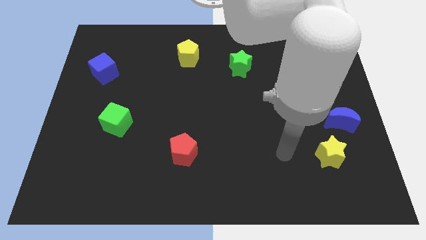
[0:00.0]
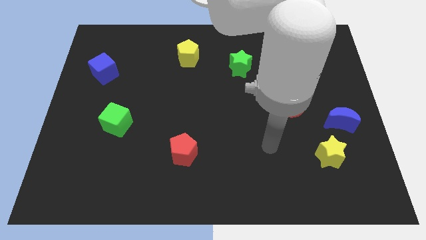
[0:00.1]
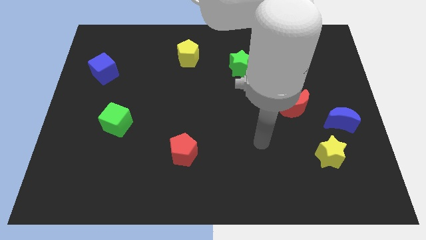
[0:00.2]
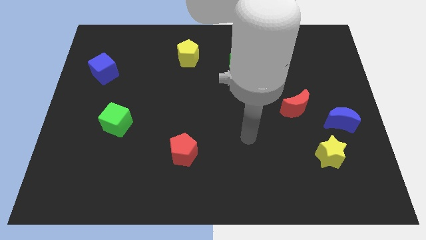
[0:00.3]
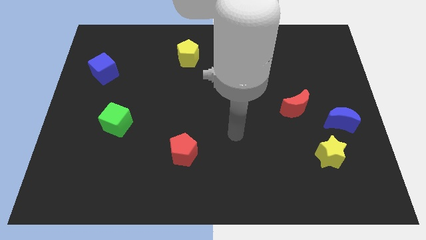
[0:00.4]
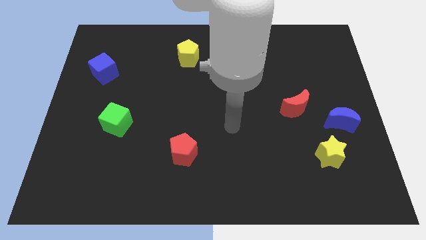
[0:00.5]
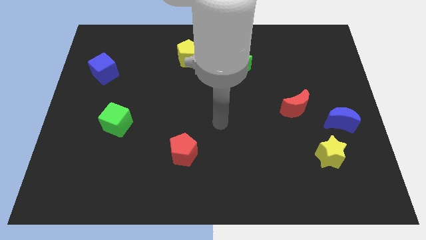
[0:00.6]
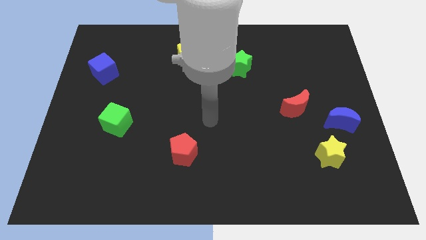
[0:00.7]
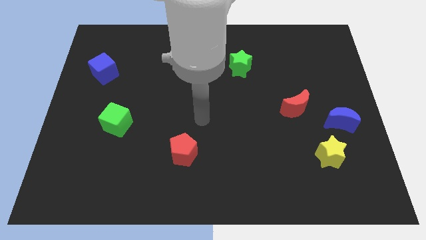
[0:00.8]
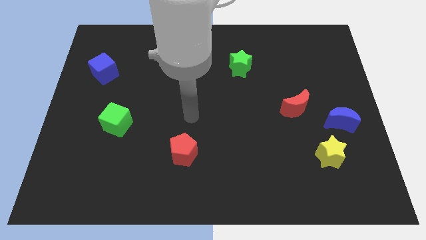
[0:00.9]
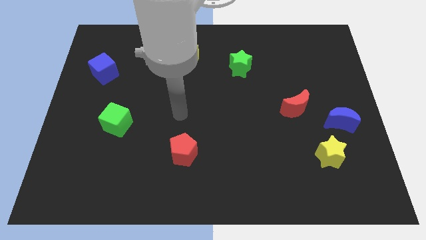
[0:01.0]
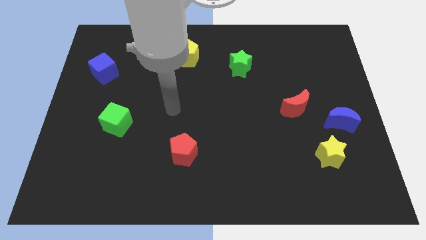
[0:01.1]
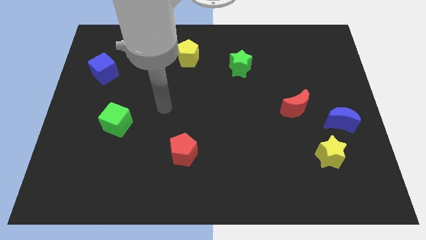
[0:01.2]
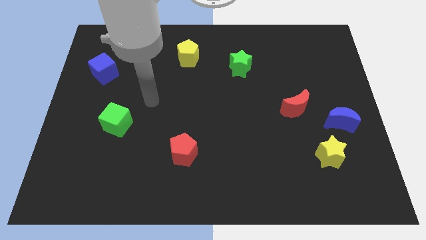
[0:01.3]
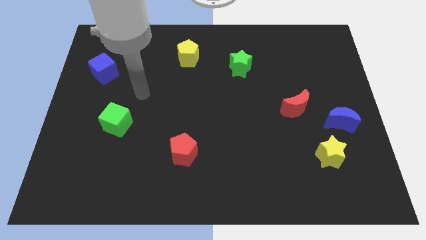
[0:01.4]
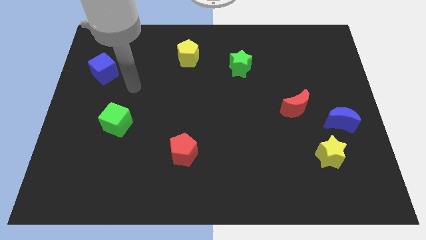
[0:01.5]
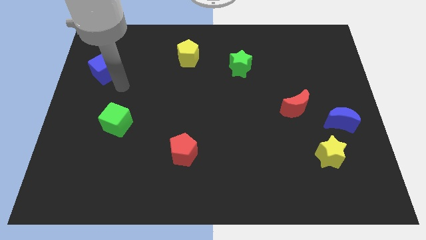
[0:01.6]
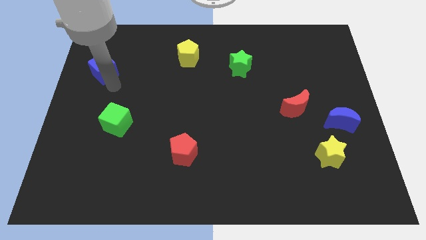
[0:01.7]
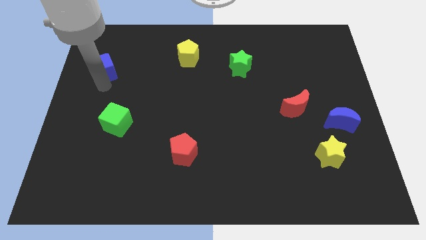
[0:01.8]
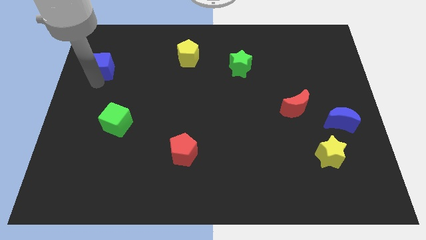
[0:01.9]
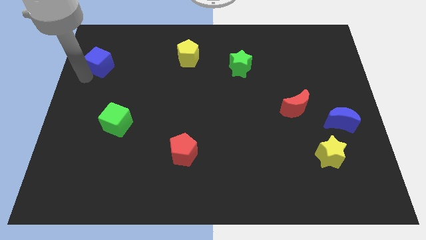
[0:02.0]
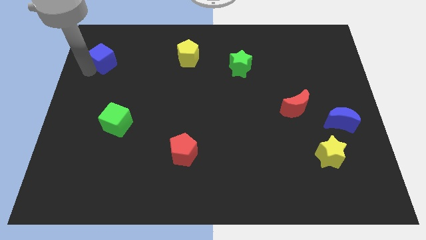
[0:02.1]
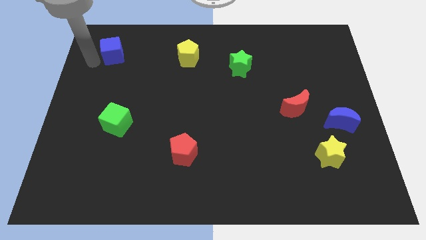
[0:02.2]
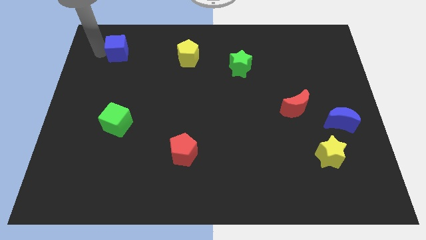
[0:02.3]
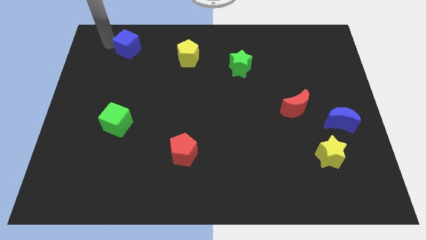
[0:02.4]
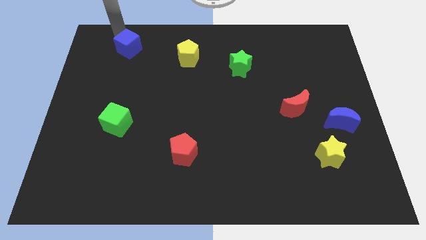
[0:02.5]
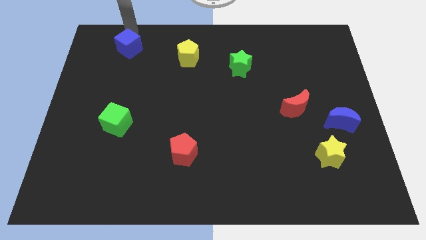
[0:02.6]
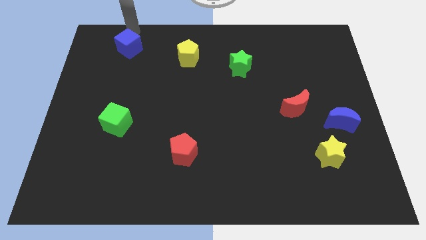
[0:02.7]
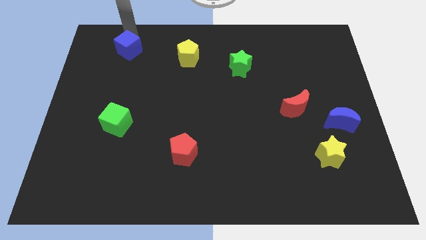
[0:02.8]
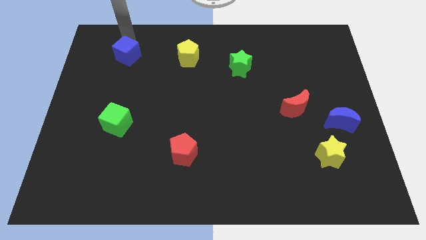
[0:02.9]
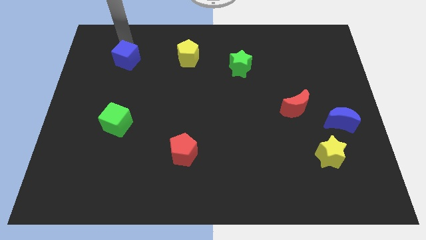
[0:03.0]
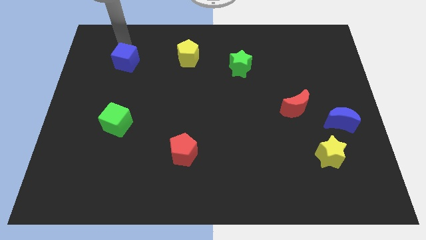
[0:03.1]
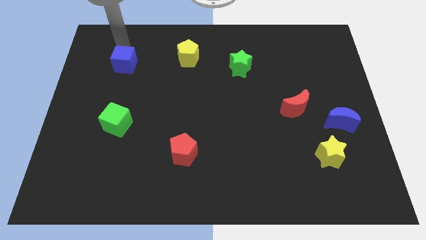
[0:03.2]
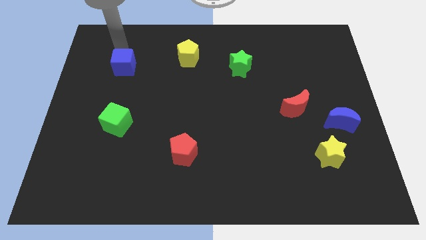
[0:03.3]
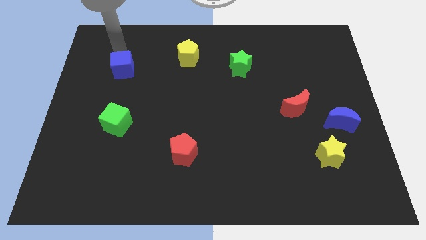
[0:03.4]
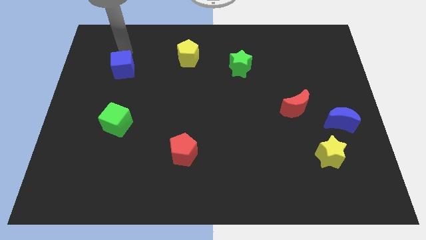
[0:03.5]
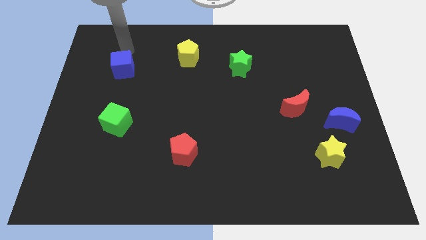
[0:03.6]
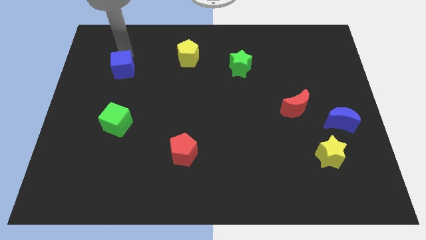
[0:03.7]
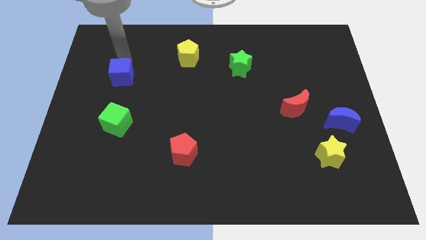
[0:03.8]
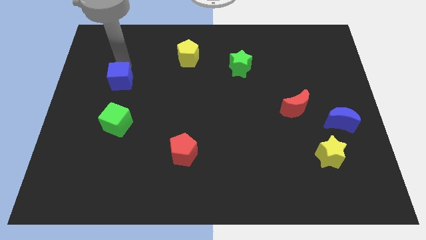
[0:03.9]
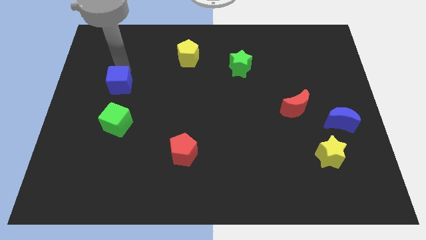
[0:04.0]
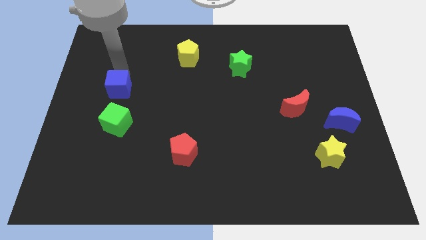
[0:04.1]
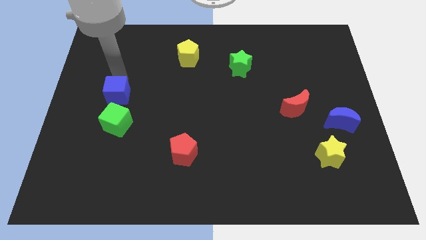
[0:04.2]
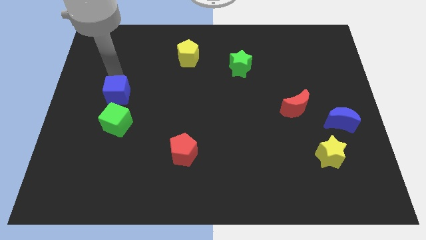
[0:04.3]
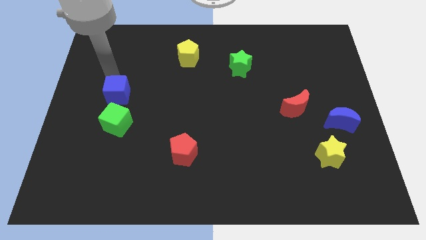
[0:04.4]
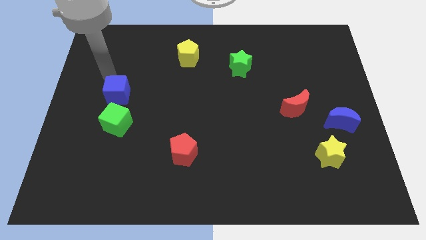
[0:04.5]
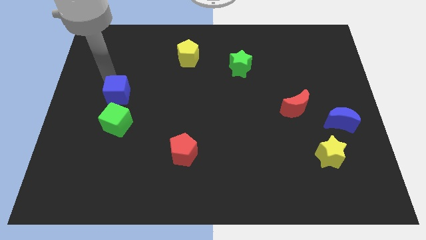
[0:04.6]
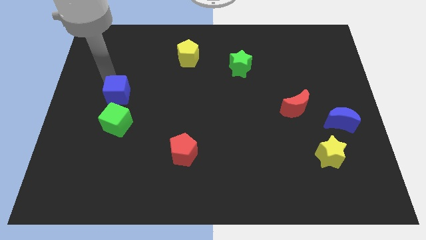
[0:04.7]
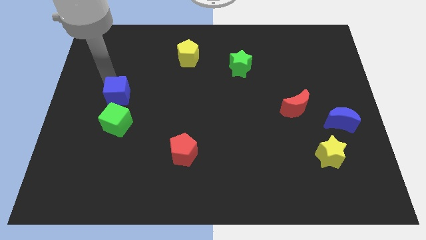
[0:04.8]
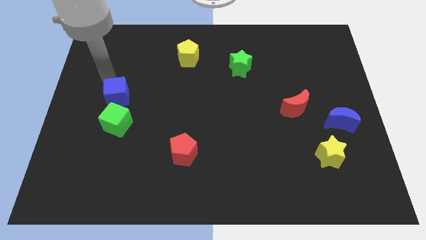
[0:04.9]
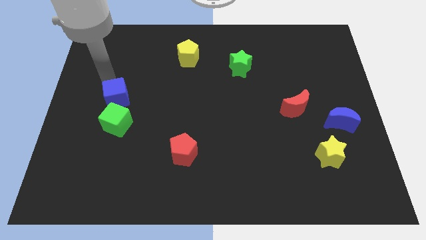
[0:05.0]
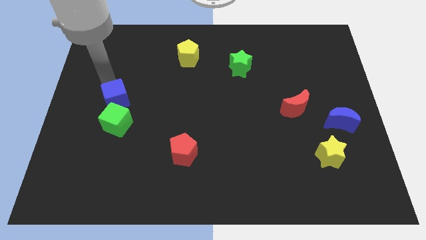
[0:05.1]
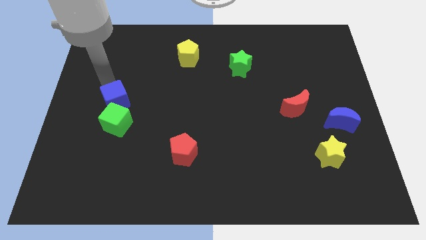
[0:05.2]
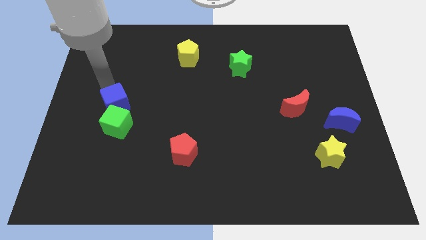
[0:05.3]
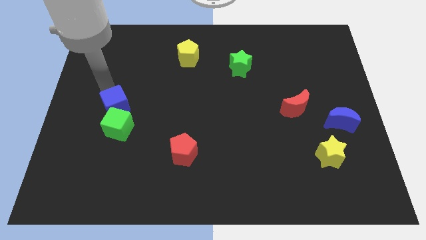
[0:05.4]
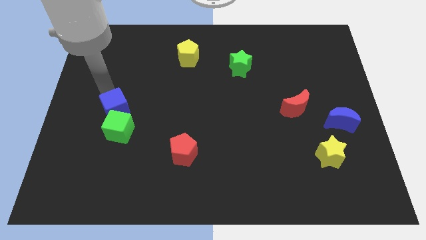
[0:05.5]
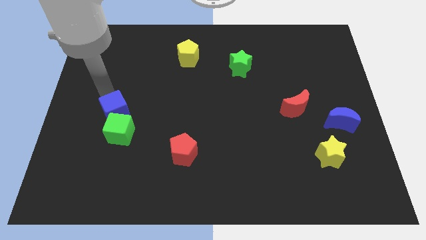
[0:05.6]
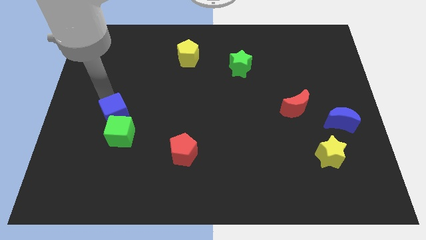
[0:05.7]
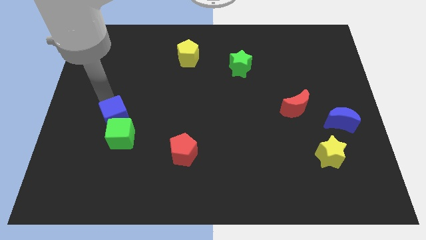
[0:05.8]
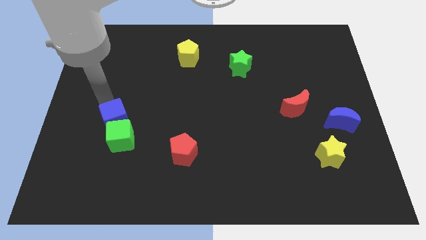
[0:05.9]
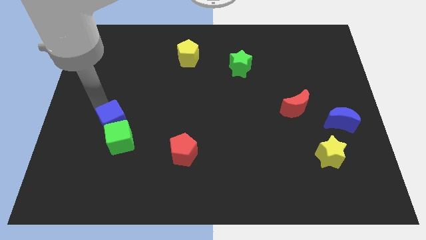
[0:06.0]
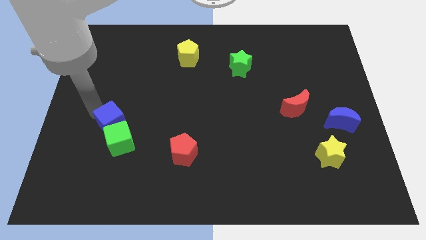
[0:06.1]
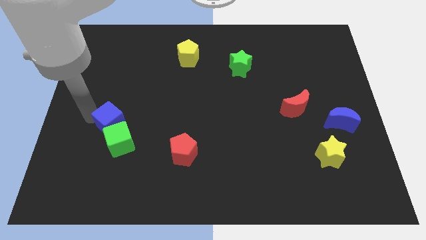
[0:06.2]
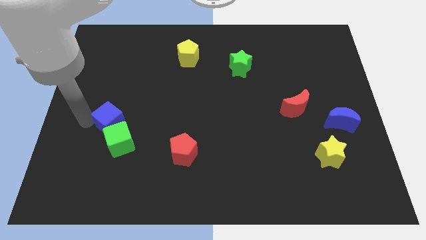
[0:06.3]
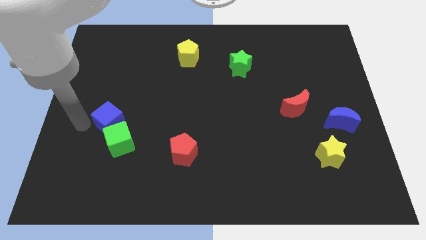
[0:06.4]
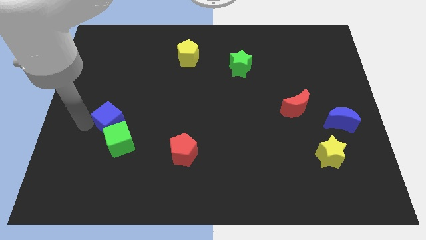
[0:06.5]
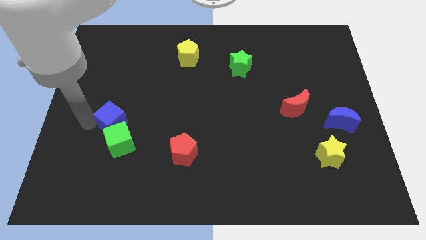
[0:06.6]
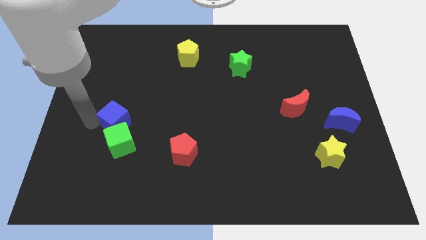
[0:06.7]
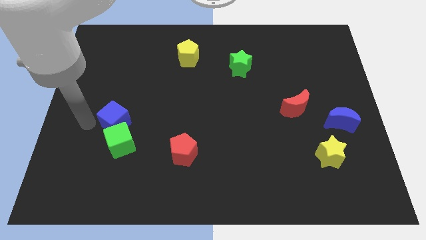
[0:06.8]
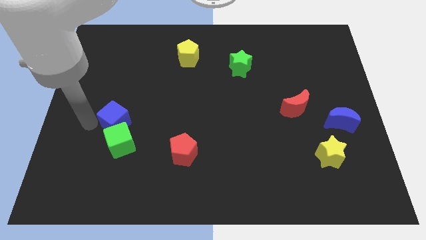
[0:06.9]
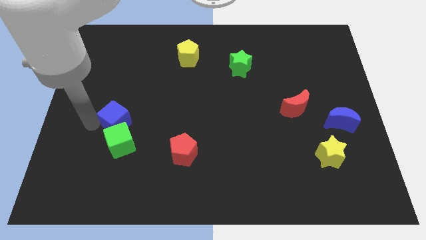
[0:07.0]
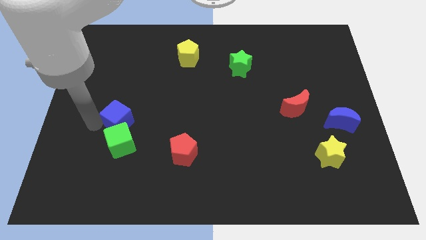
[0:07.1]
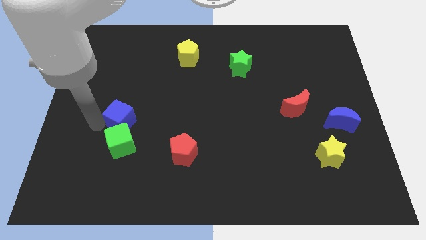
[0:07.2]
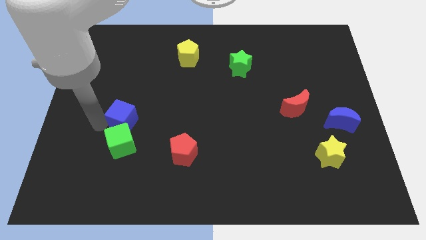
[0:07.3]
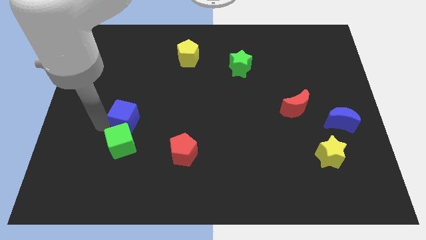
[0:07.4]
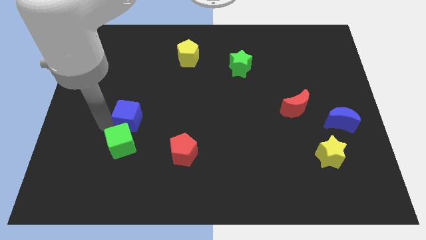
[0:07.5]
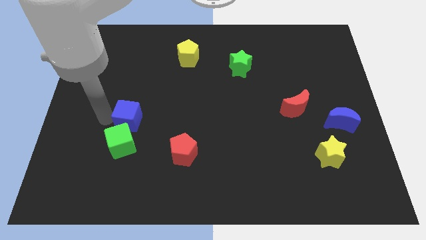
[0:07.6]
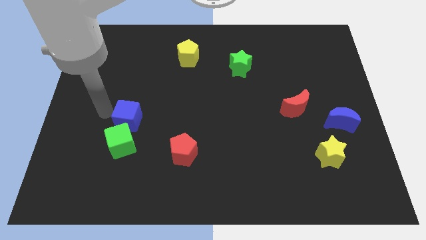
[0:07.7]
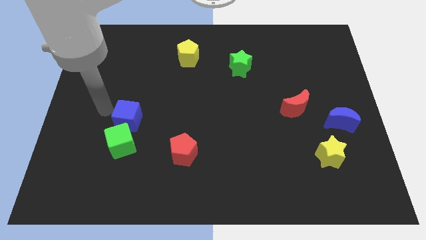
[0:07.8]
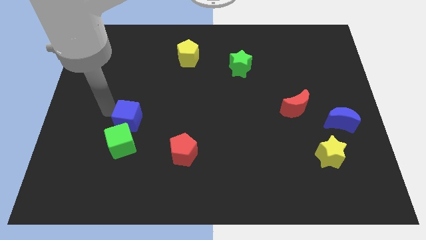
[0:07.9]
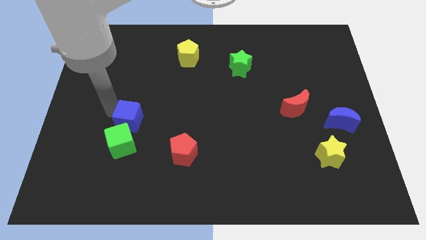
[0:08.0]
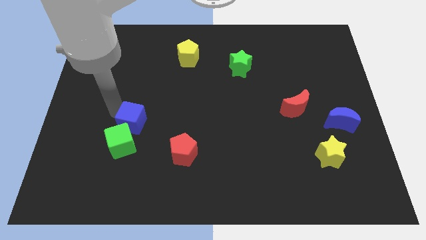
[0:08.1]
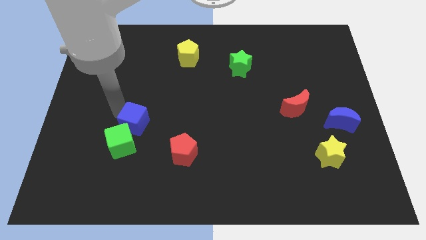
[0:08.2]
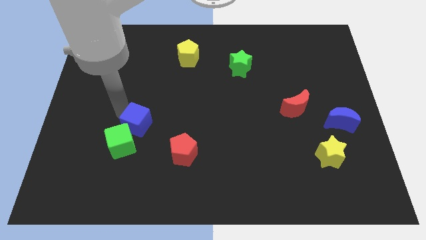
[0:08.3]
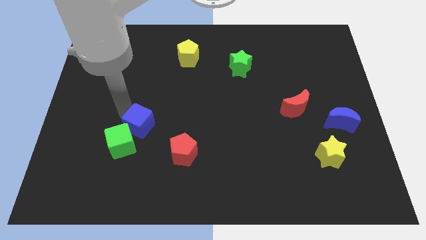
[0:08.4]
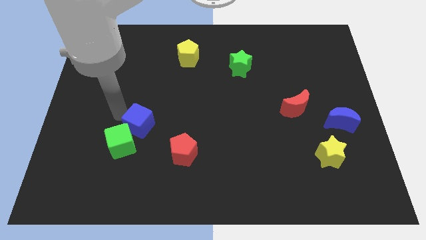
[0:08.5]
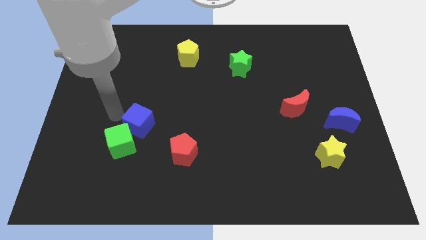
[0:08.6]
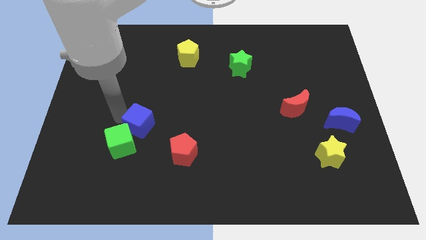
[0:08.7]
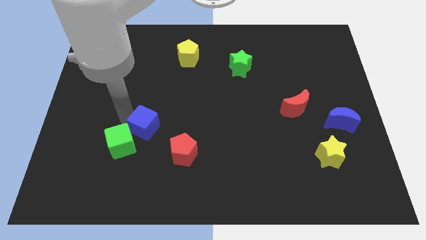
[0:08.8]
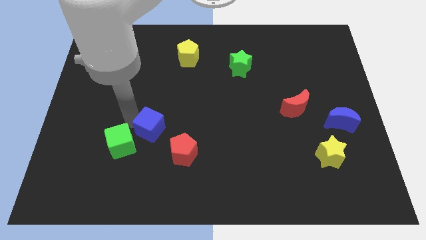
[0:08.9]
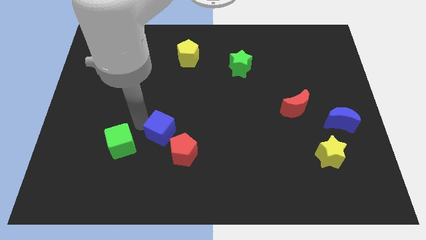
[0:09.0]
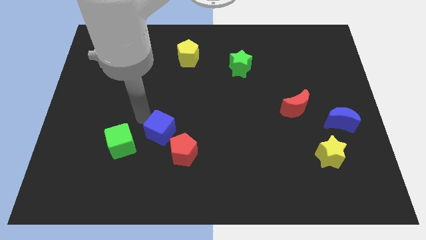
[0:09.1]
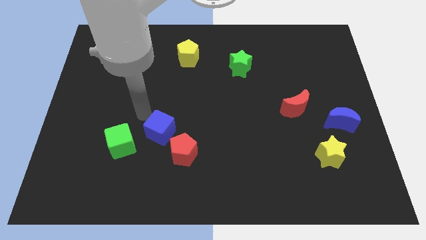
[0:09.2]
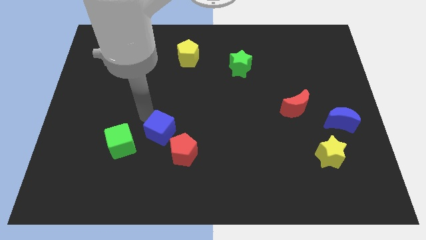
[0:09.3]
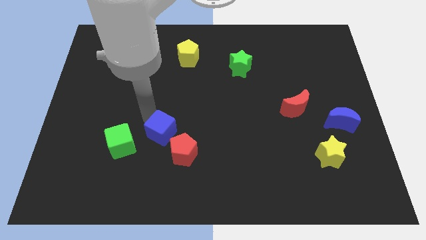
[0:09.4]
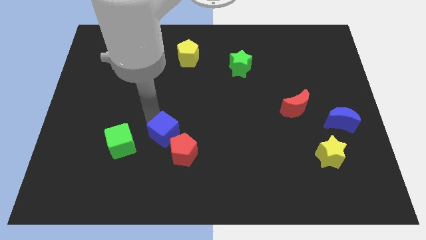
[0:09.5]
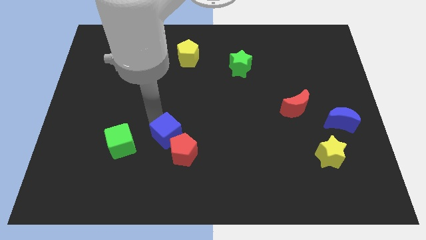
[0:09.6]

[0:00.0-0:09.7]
push the blue cube next to the red pentagon
